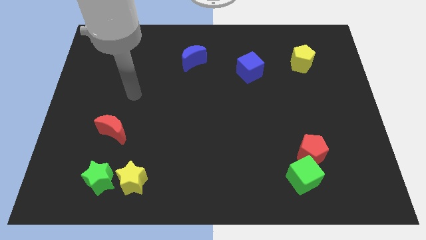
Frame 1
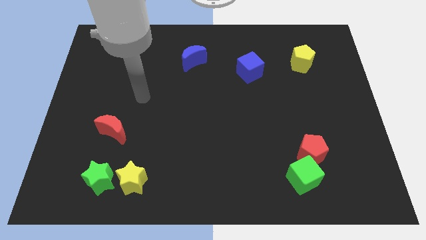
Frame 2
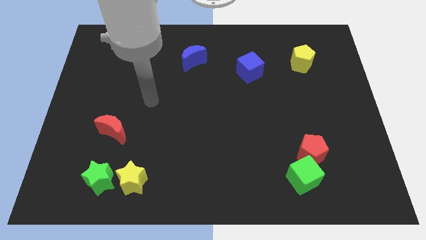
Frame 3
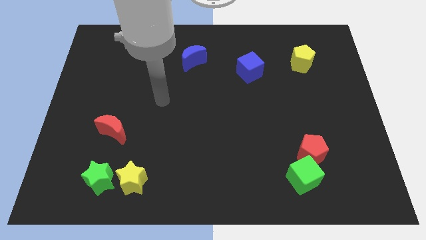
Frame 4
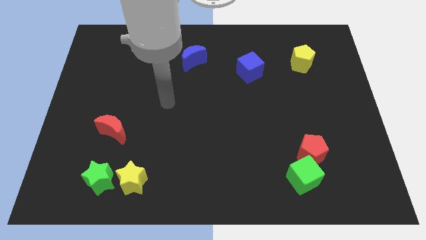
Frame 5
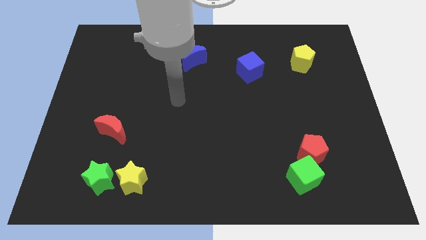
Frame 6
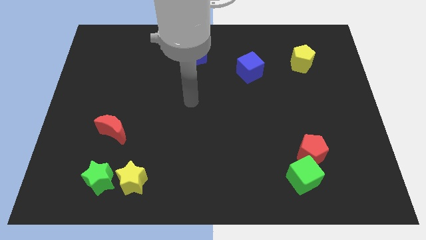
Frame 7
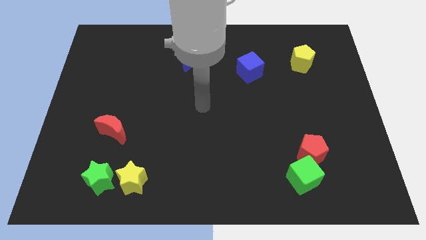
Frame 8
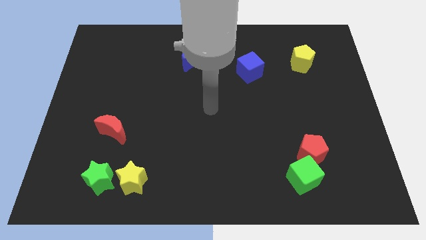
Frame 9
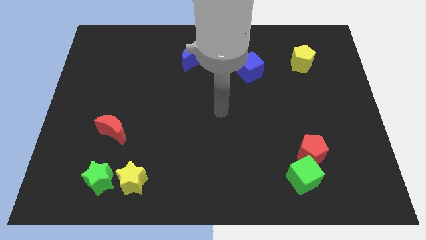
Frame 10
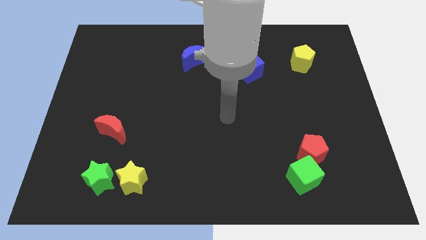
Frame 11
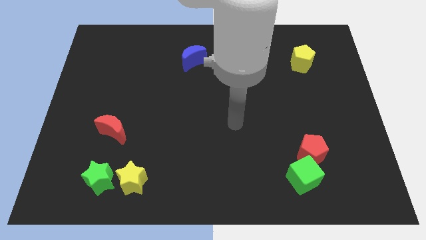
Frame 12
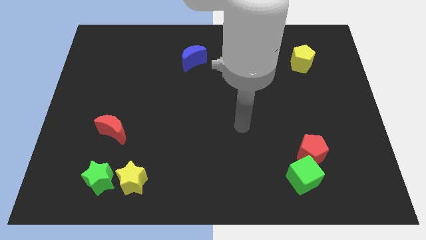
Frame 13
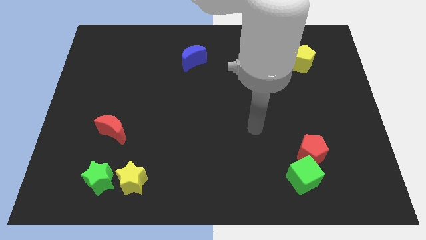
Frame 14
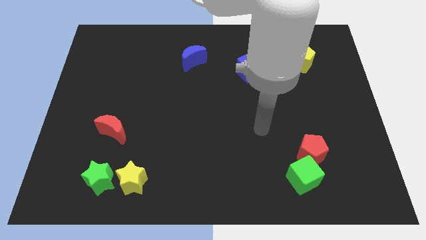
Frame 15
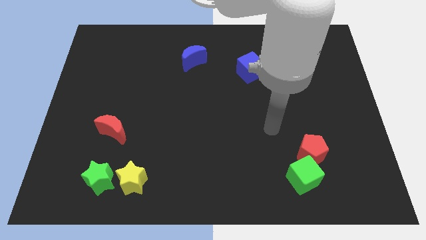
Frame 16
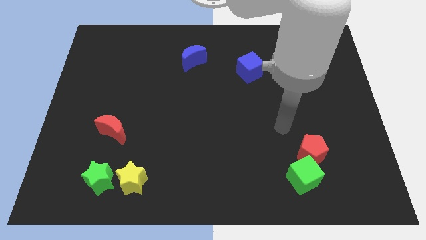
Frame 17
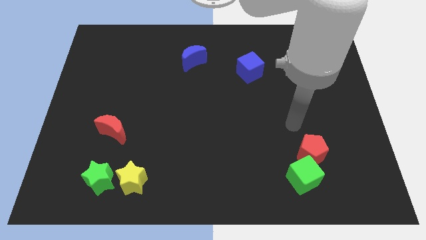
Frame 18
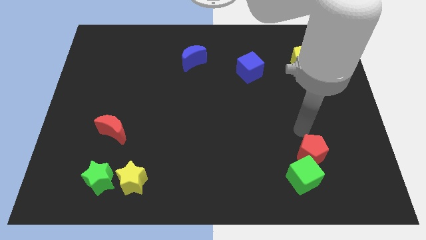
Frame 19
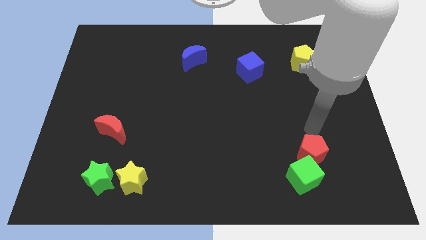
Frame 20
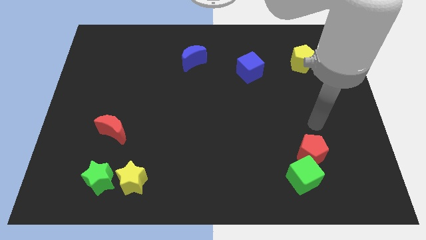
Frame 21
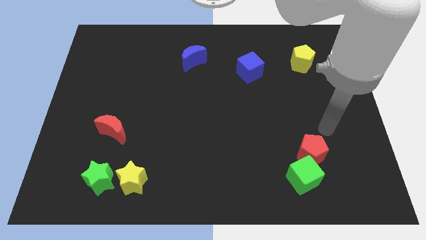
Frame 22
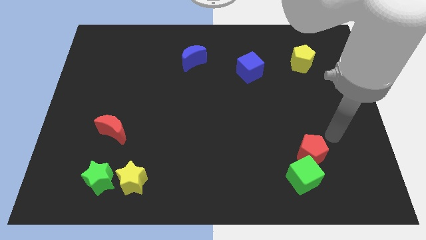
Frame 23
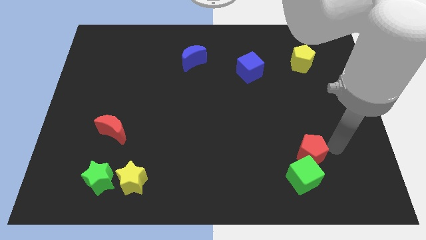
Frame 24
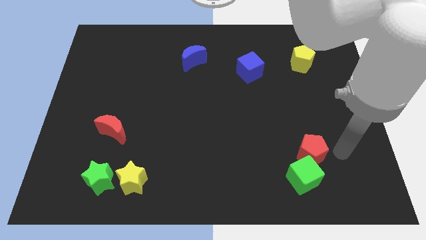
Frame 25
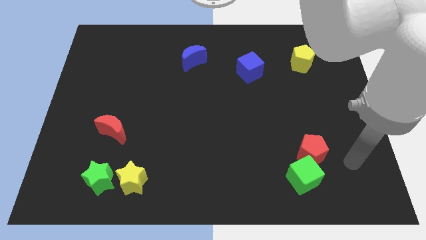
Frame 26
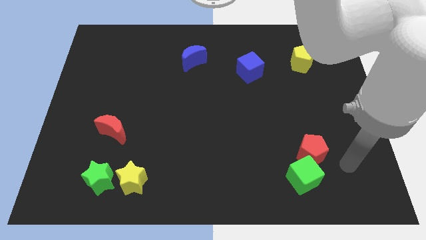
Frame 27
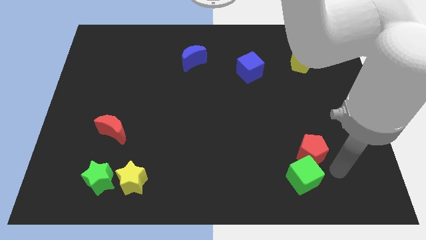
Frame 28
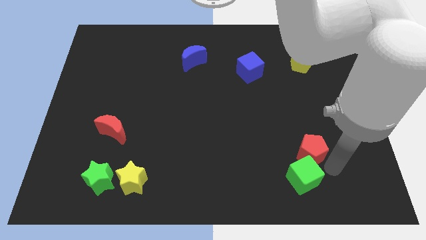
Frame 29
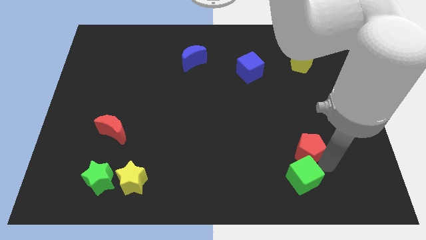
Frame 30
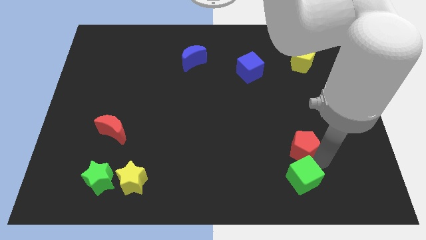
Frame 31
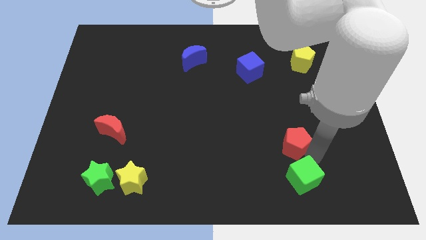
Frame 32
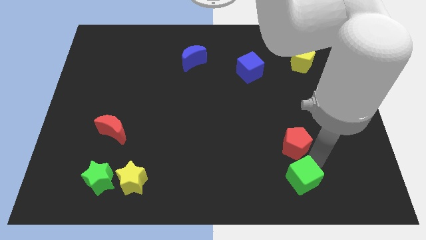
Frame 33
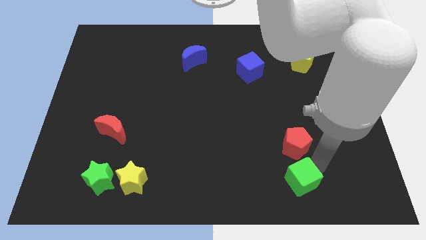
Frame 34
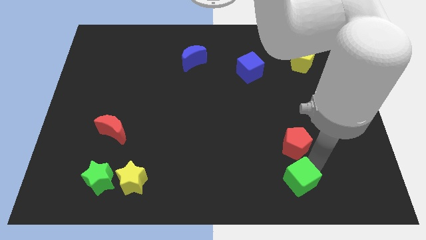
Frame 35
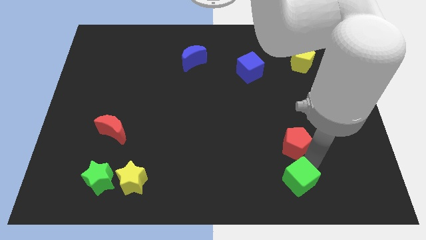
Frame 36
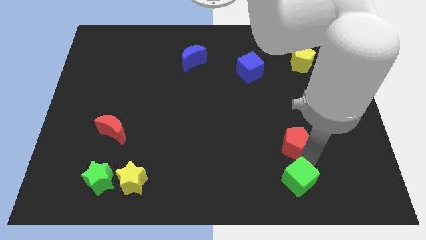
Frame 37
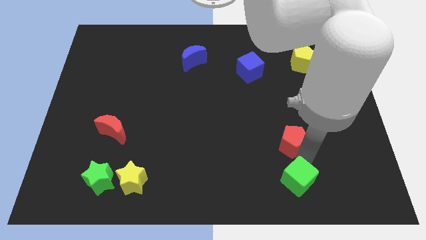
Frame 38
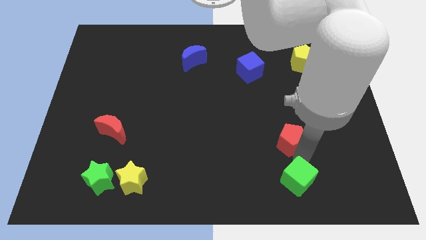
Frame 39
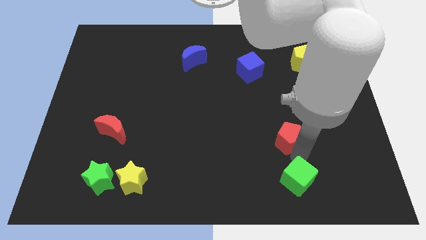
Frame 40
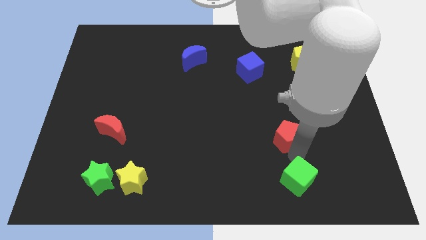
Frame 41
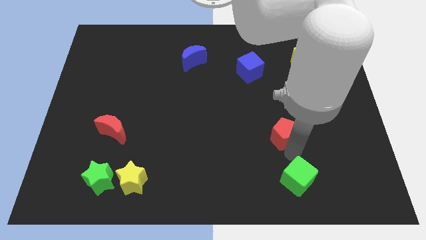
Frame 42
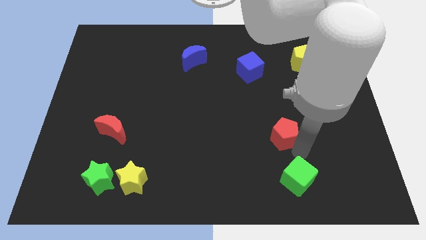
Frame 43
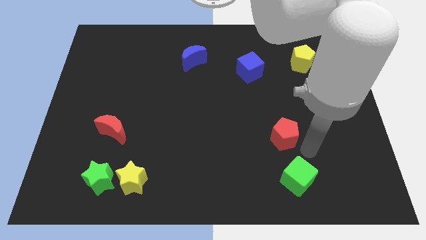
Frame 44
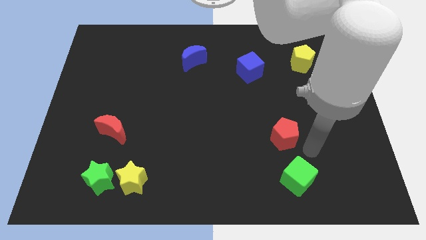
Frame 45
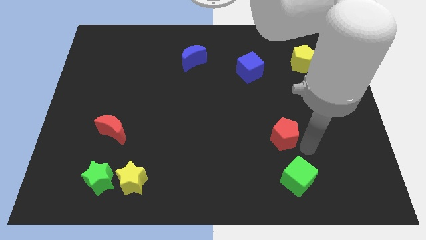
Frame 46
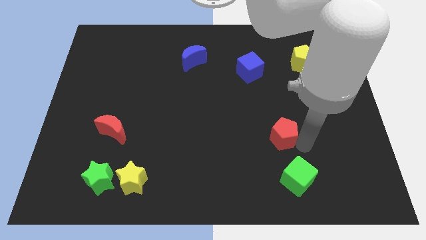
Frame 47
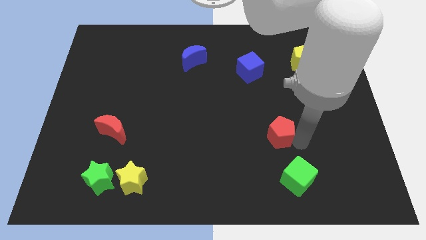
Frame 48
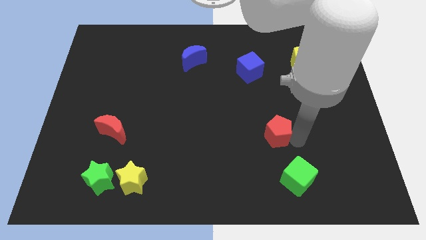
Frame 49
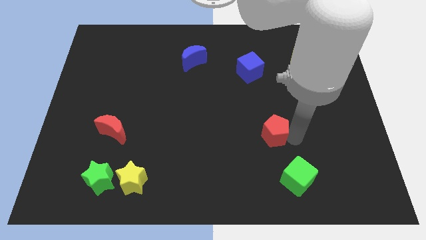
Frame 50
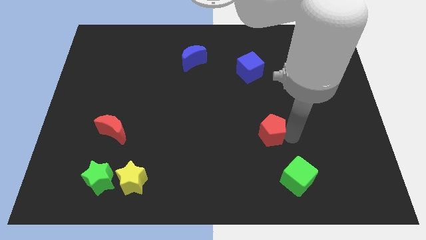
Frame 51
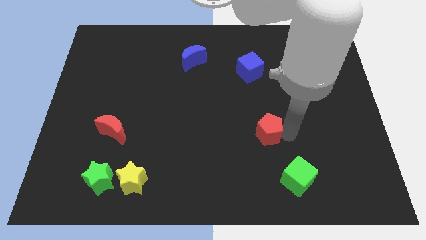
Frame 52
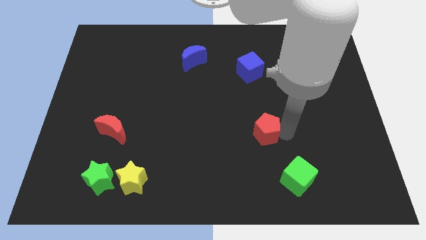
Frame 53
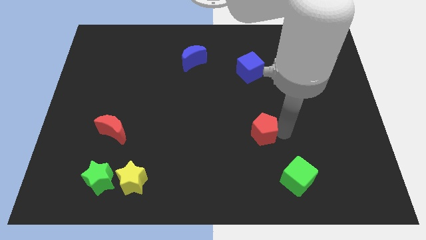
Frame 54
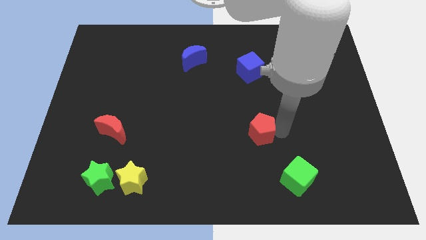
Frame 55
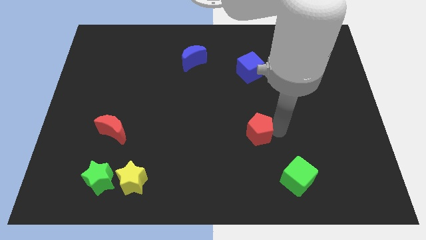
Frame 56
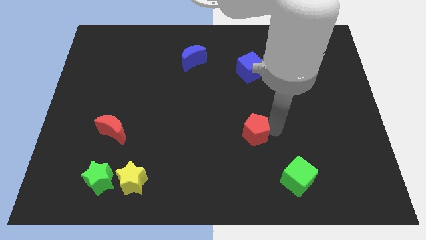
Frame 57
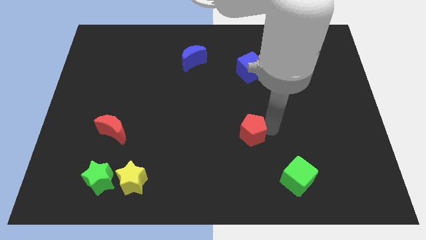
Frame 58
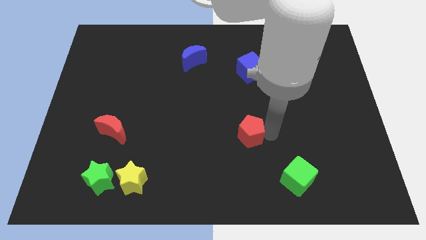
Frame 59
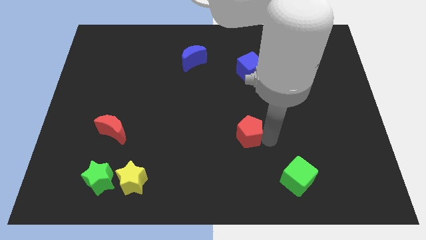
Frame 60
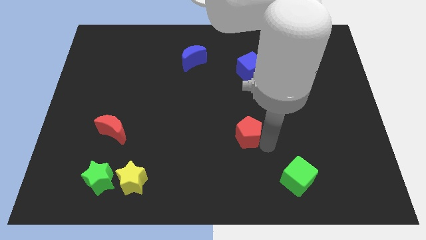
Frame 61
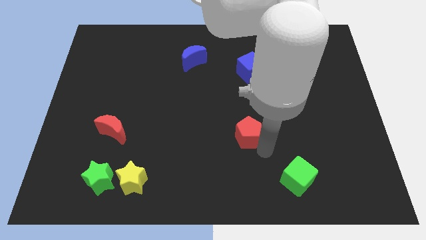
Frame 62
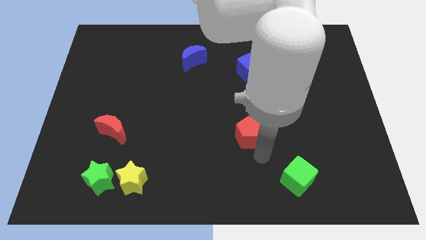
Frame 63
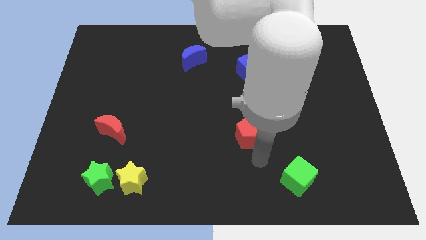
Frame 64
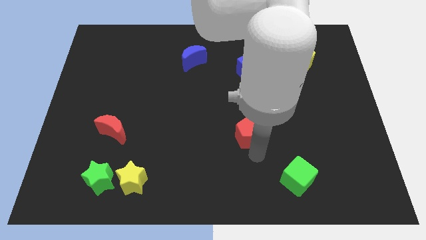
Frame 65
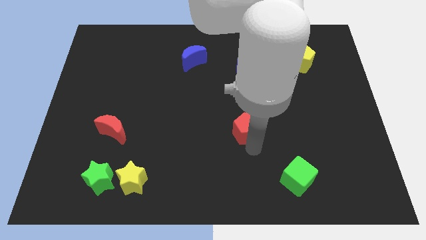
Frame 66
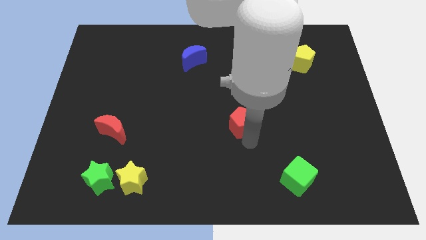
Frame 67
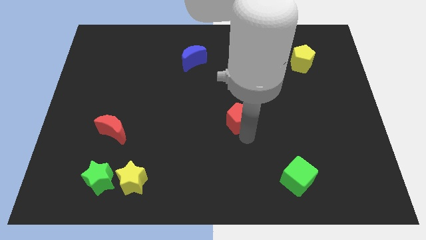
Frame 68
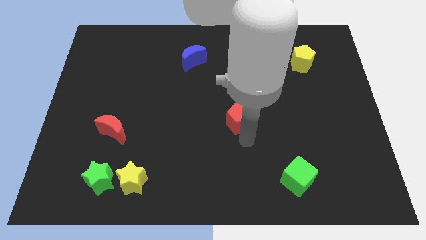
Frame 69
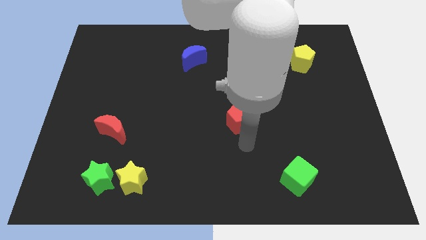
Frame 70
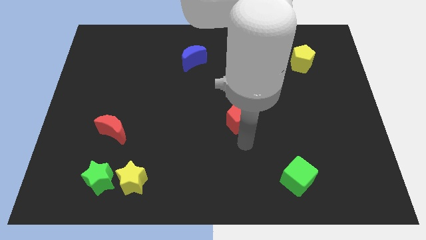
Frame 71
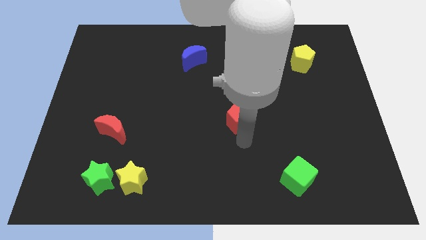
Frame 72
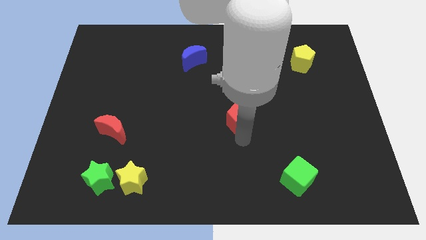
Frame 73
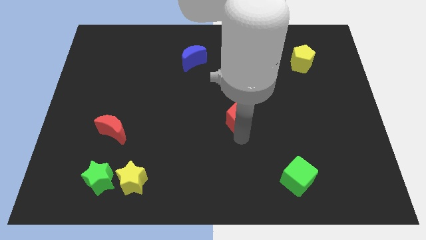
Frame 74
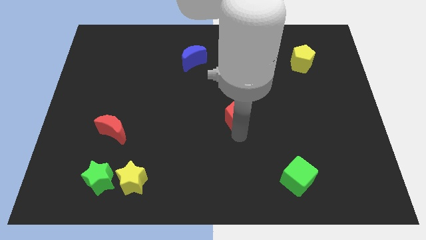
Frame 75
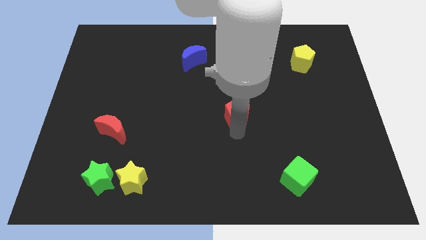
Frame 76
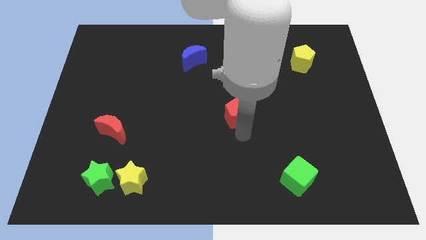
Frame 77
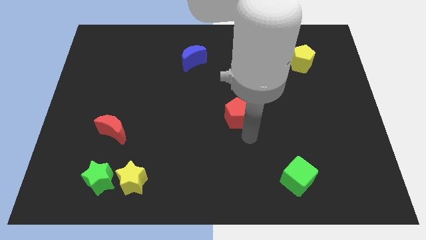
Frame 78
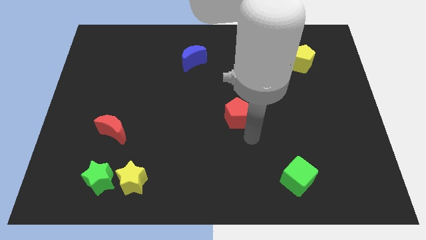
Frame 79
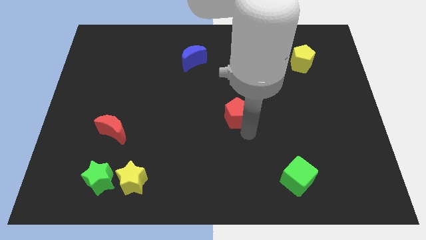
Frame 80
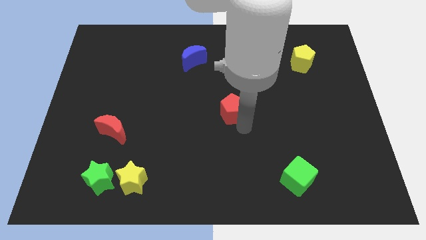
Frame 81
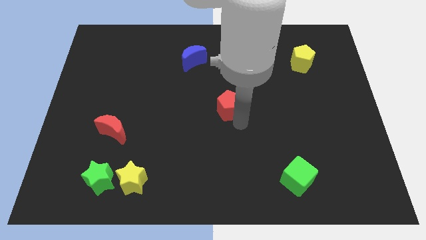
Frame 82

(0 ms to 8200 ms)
move the red pentagon up and to the left
